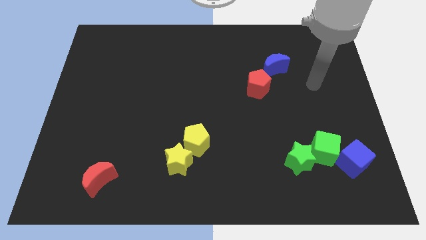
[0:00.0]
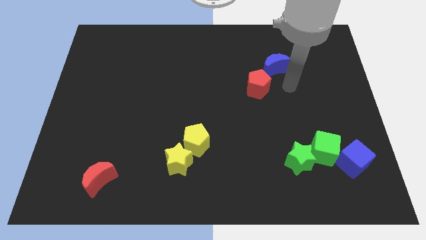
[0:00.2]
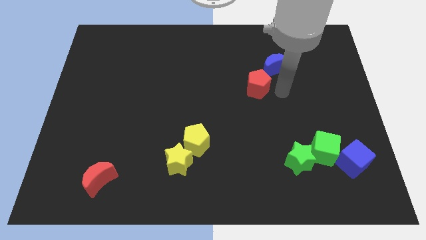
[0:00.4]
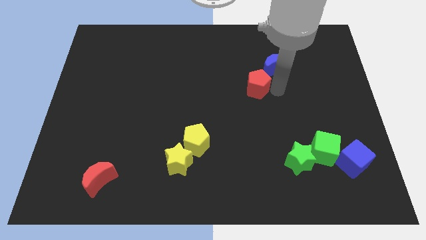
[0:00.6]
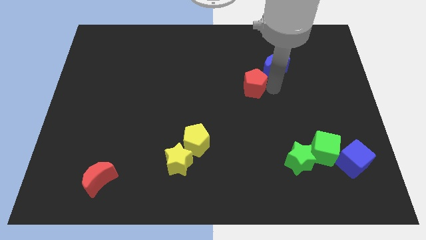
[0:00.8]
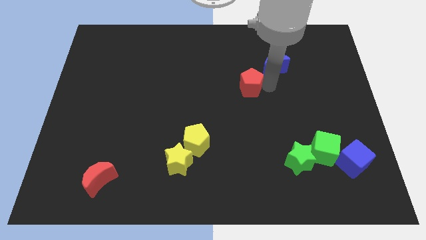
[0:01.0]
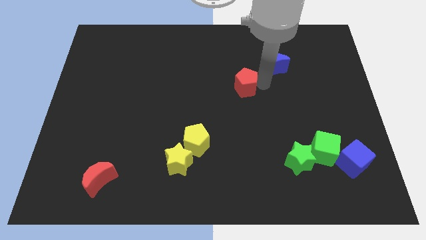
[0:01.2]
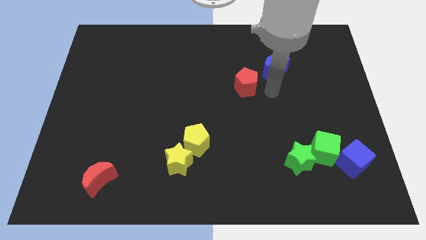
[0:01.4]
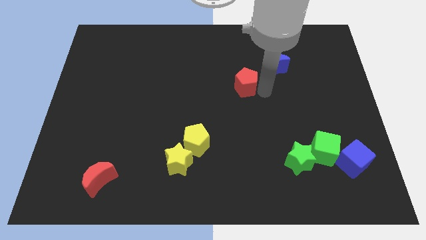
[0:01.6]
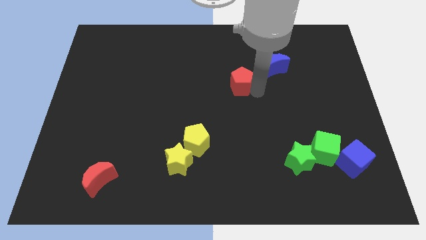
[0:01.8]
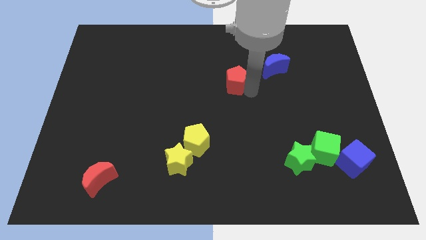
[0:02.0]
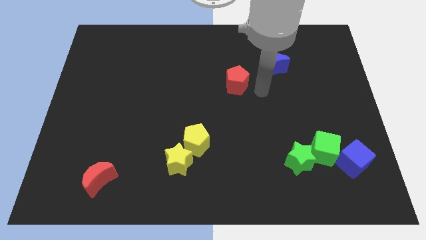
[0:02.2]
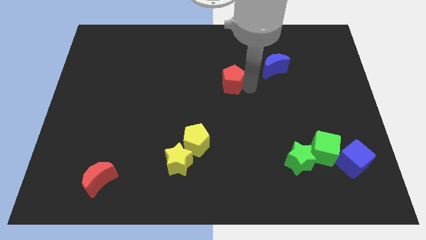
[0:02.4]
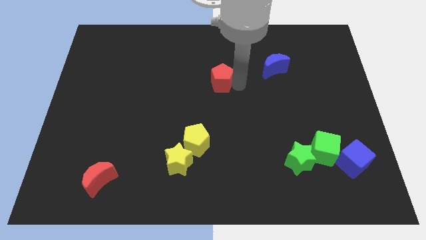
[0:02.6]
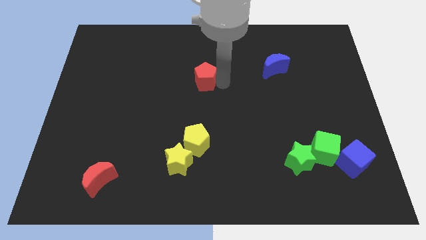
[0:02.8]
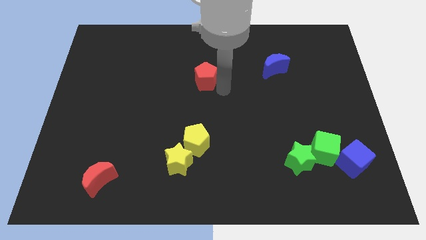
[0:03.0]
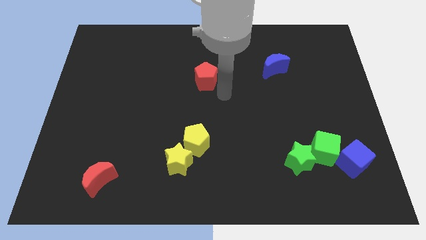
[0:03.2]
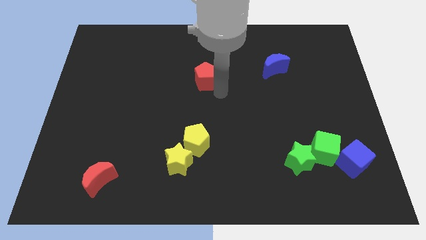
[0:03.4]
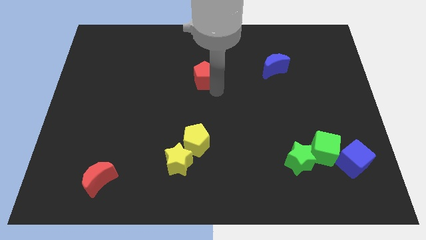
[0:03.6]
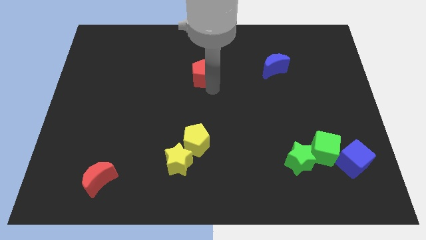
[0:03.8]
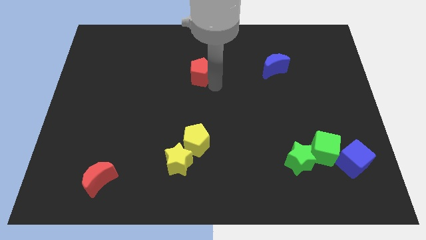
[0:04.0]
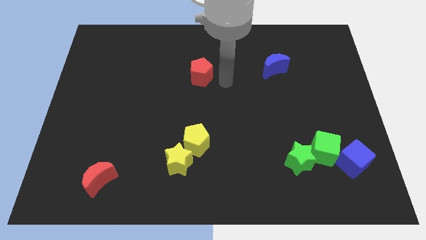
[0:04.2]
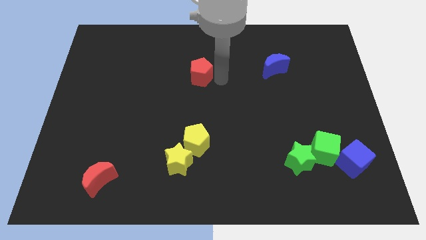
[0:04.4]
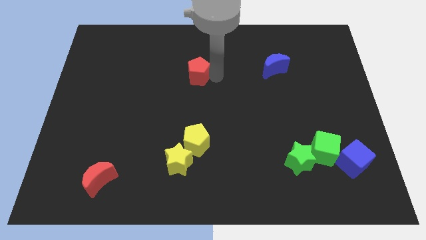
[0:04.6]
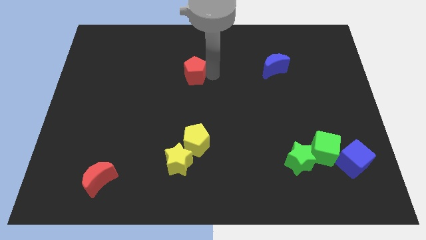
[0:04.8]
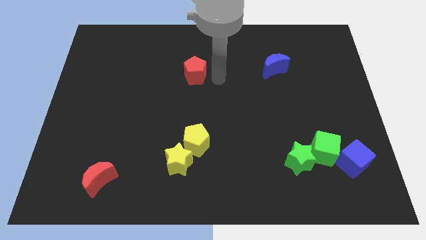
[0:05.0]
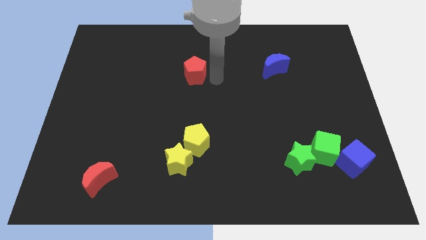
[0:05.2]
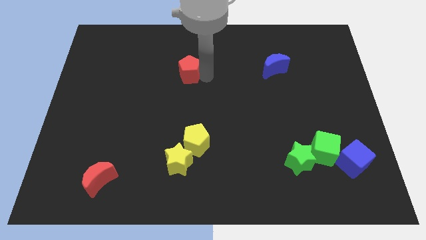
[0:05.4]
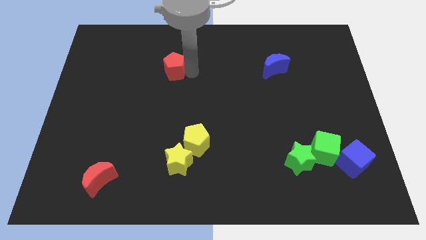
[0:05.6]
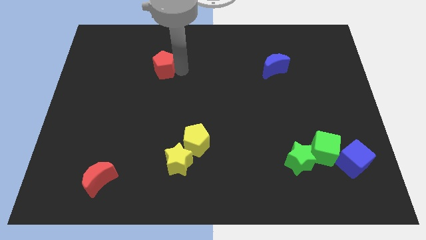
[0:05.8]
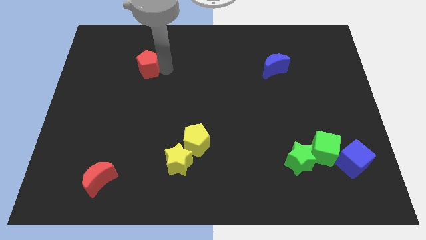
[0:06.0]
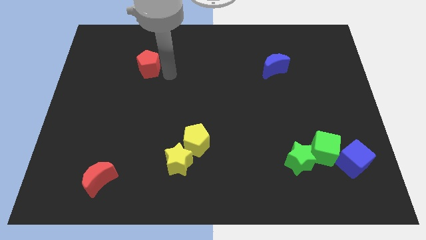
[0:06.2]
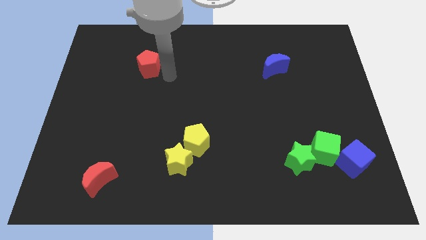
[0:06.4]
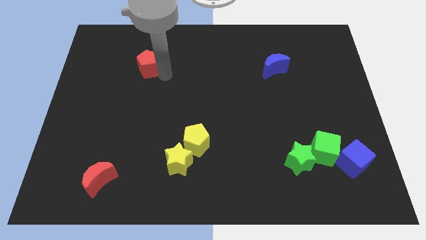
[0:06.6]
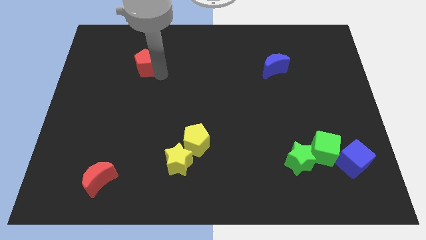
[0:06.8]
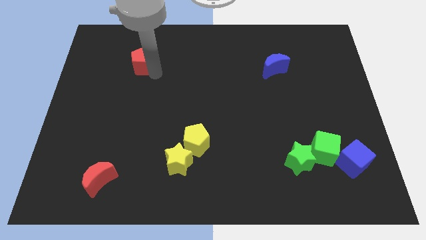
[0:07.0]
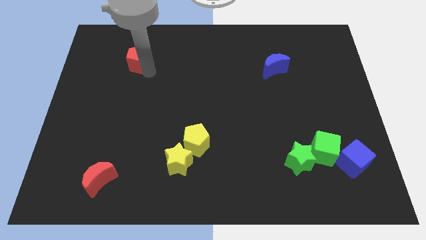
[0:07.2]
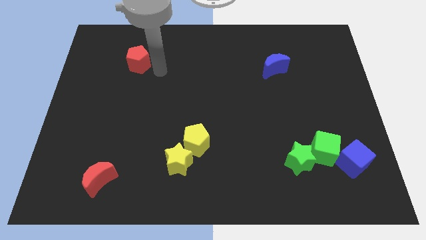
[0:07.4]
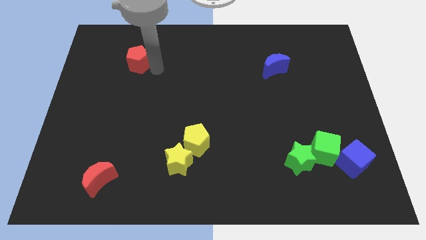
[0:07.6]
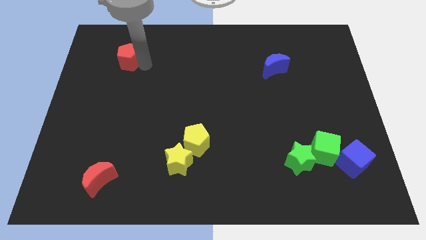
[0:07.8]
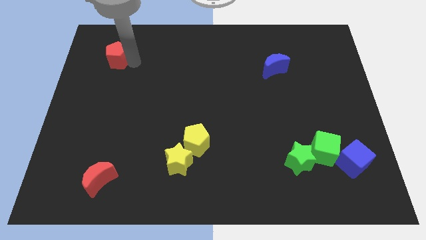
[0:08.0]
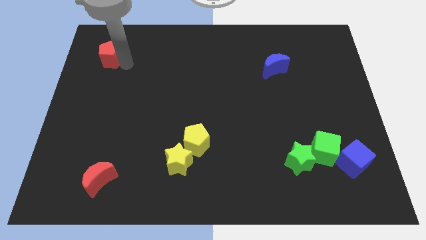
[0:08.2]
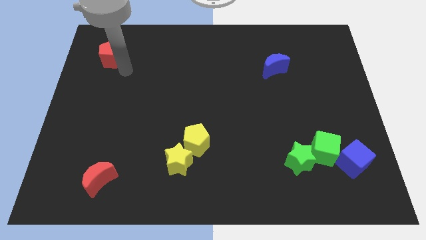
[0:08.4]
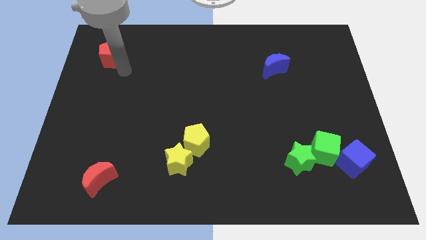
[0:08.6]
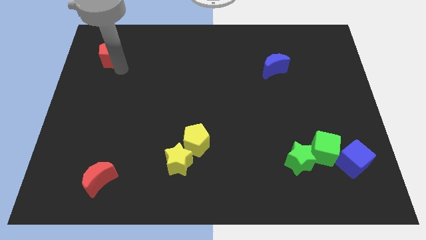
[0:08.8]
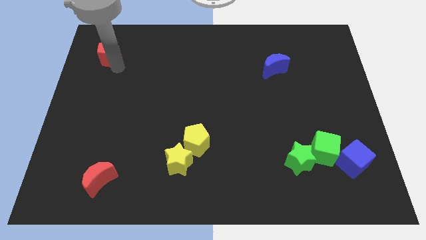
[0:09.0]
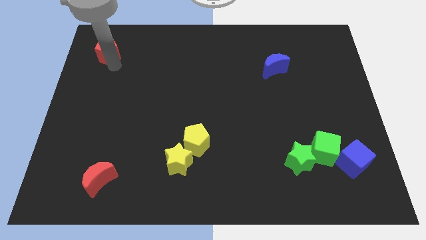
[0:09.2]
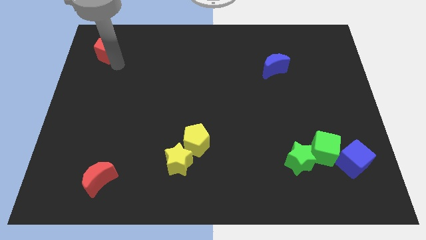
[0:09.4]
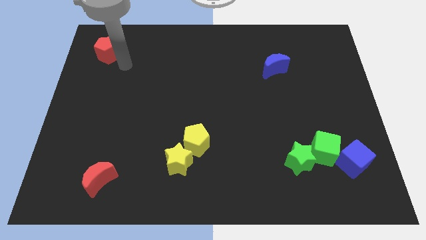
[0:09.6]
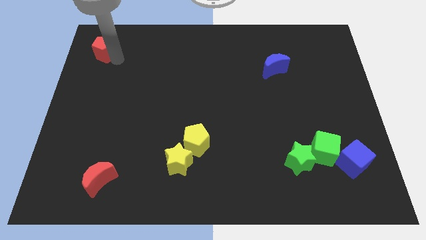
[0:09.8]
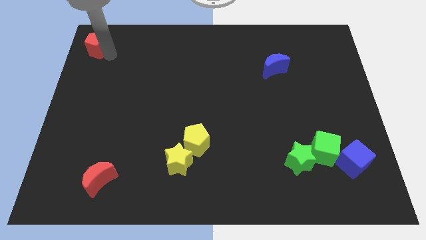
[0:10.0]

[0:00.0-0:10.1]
push the red pentagon to the upper left corner

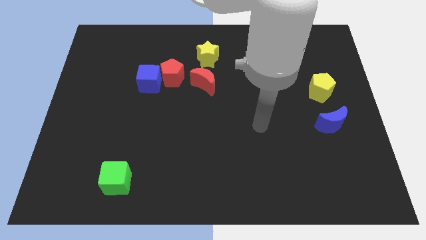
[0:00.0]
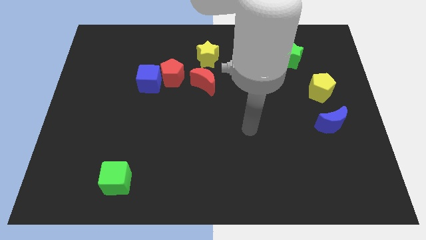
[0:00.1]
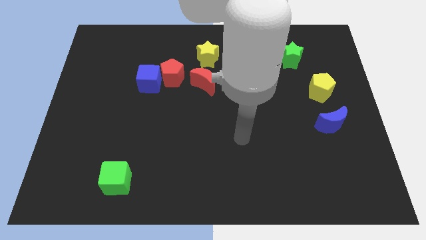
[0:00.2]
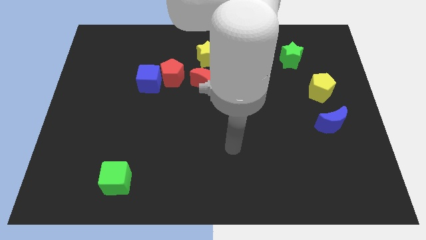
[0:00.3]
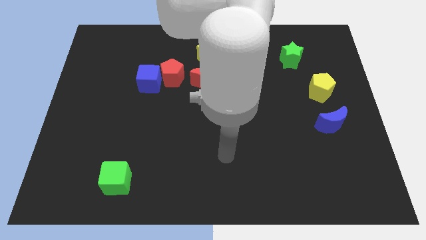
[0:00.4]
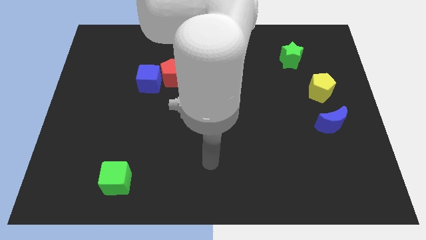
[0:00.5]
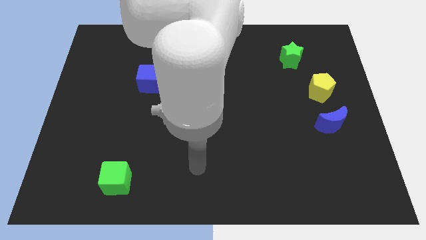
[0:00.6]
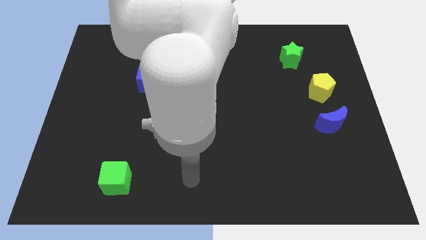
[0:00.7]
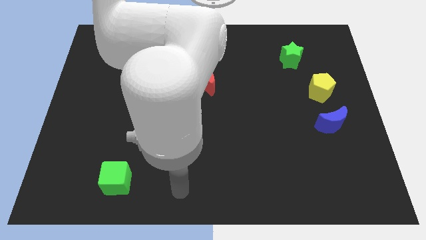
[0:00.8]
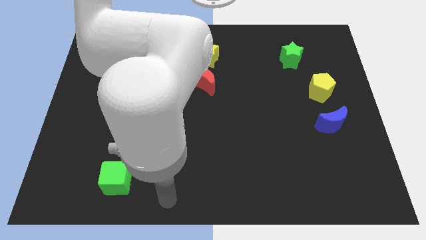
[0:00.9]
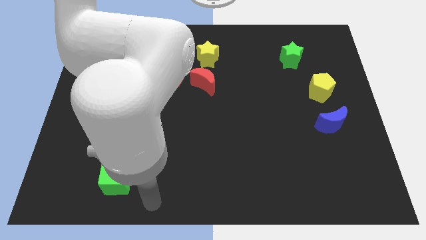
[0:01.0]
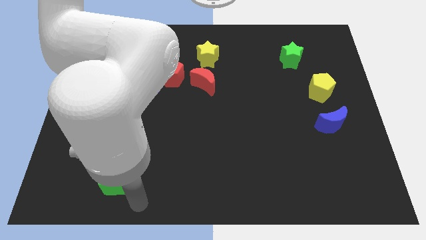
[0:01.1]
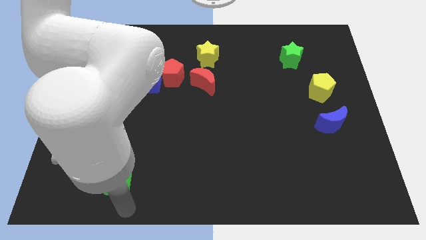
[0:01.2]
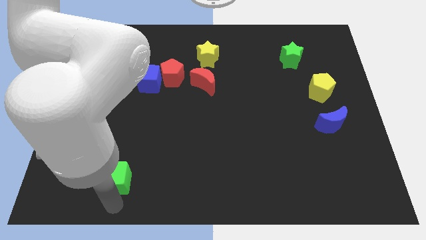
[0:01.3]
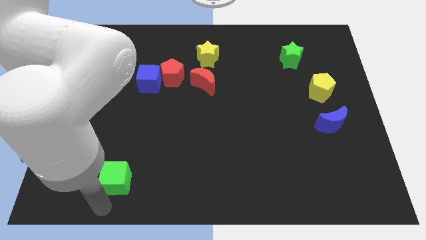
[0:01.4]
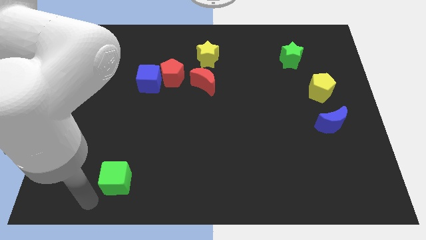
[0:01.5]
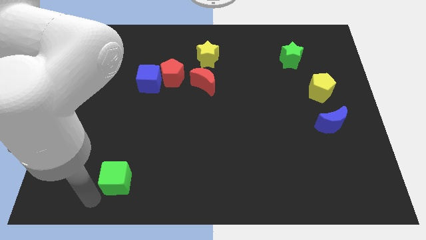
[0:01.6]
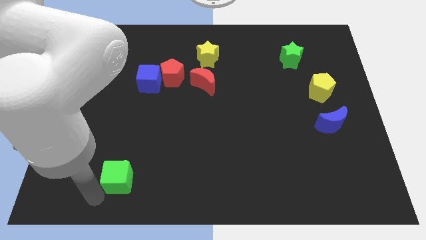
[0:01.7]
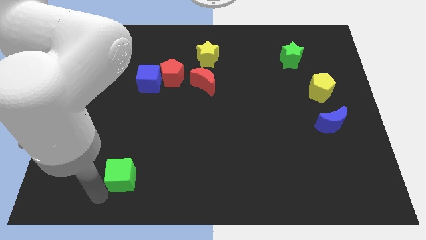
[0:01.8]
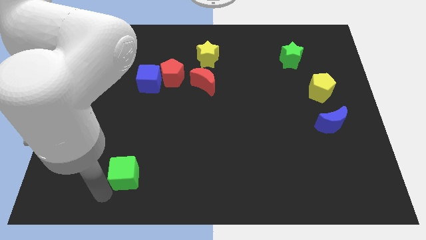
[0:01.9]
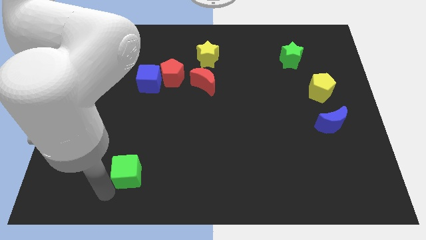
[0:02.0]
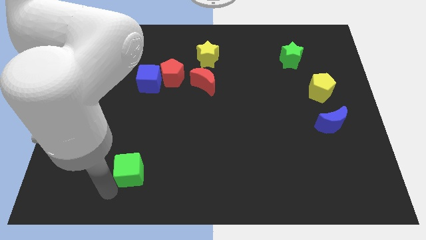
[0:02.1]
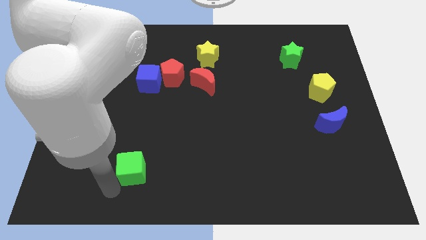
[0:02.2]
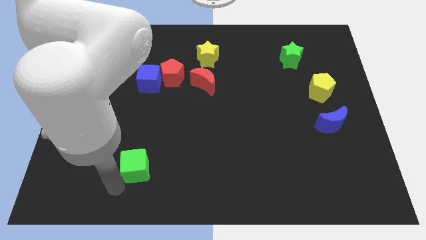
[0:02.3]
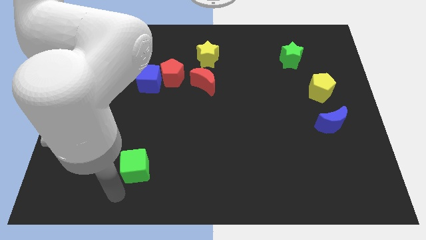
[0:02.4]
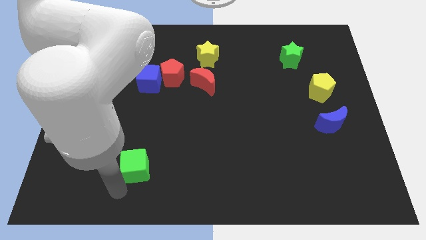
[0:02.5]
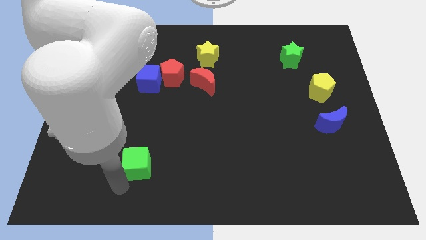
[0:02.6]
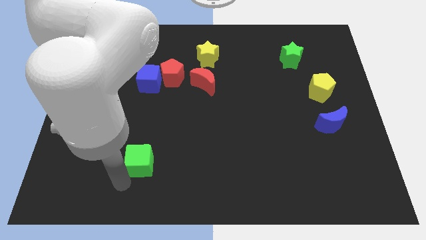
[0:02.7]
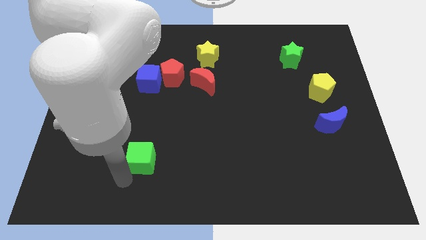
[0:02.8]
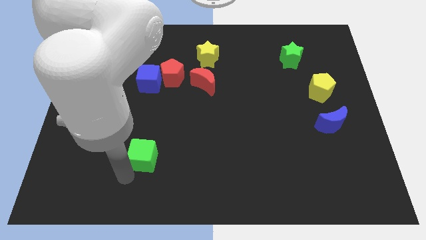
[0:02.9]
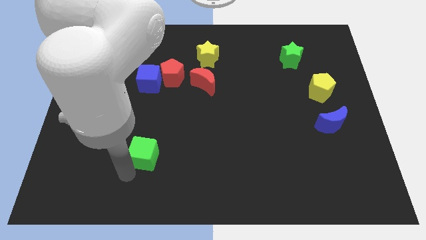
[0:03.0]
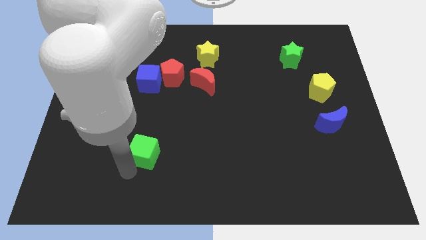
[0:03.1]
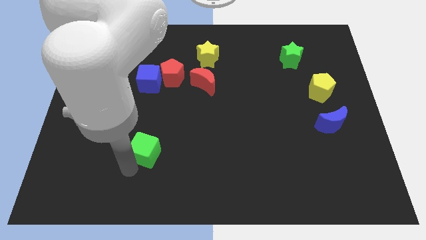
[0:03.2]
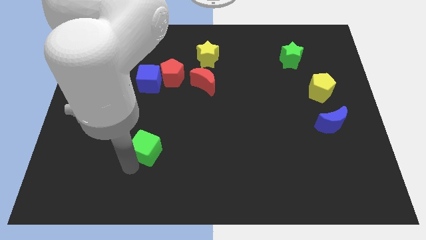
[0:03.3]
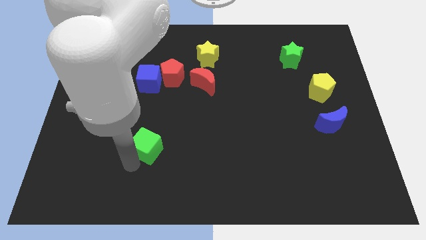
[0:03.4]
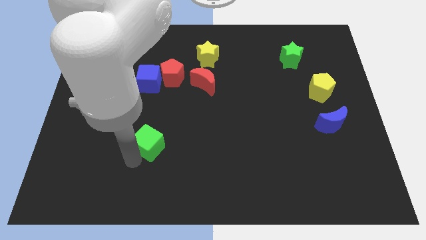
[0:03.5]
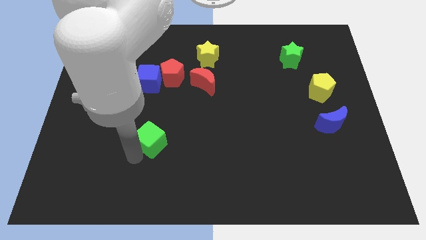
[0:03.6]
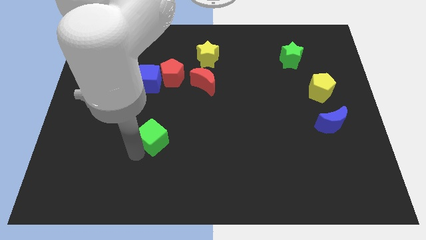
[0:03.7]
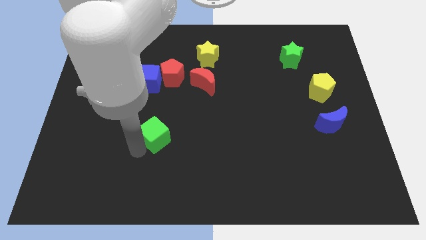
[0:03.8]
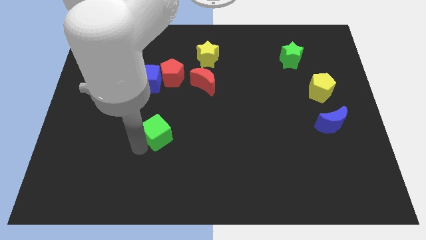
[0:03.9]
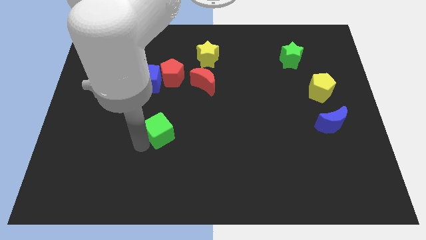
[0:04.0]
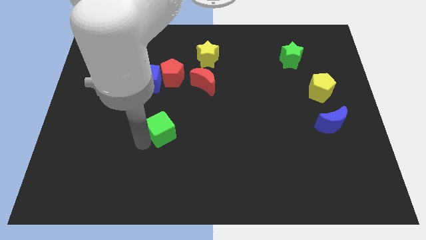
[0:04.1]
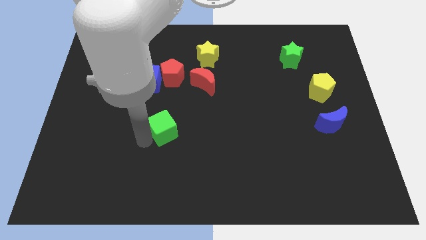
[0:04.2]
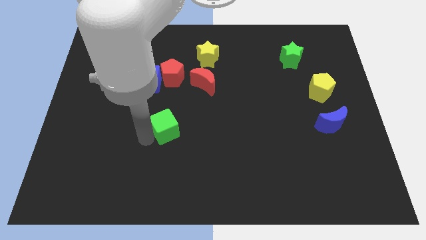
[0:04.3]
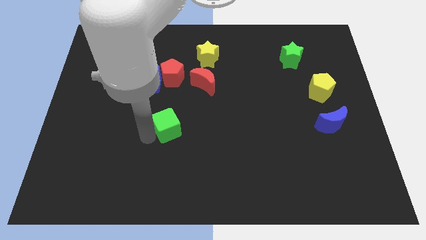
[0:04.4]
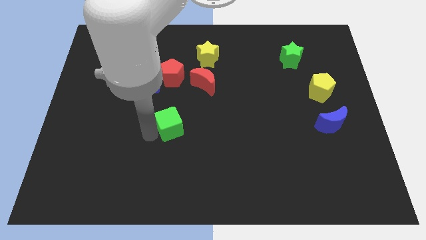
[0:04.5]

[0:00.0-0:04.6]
move the green cube to the center of the board
